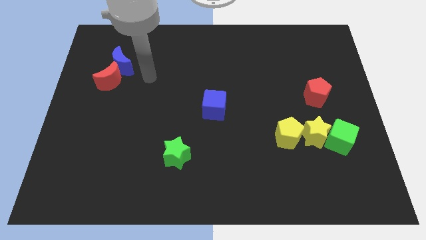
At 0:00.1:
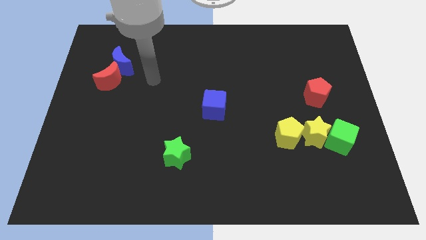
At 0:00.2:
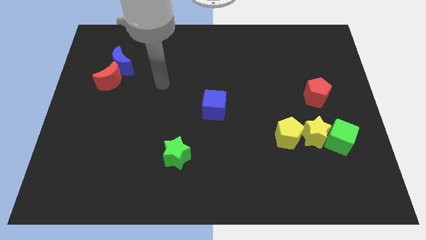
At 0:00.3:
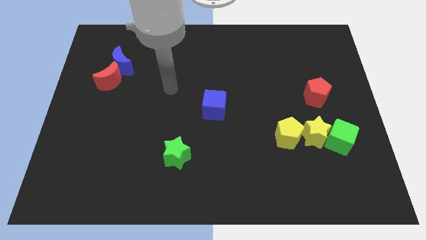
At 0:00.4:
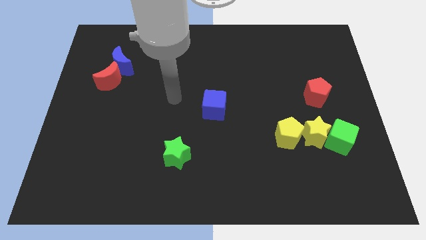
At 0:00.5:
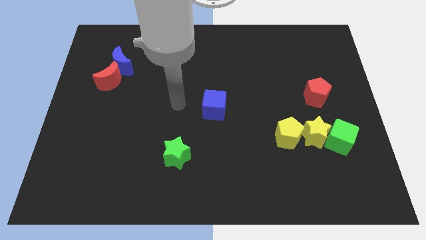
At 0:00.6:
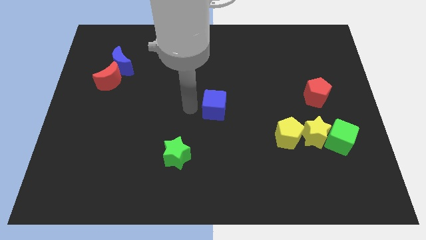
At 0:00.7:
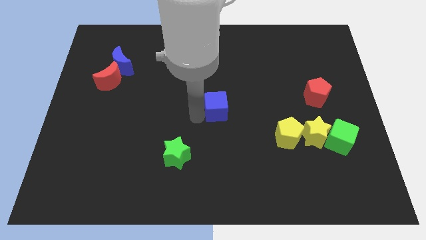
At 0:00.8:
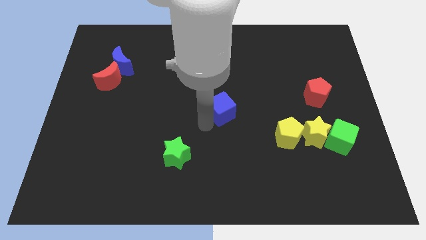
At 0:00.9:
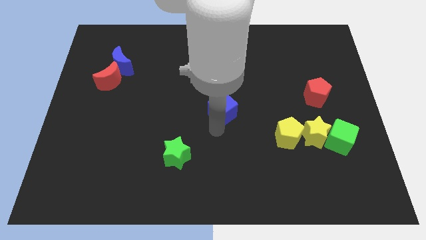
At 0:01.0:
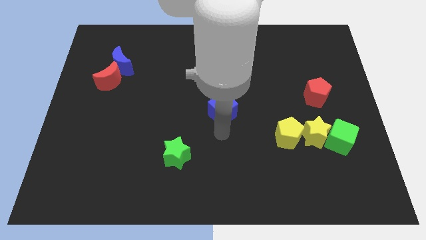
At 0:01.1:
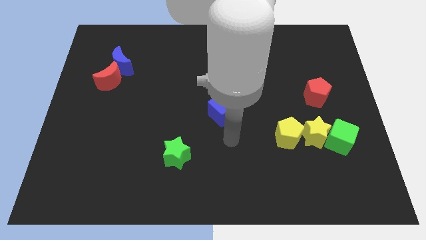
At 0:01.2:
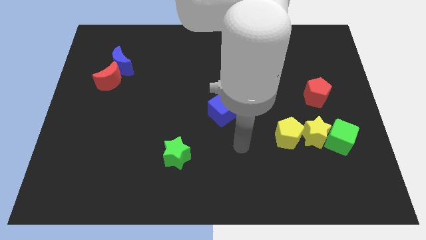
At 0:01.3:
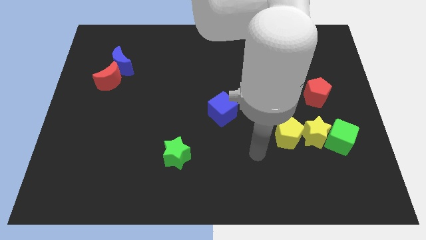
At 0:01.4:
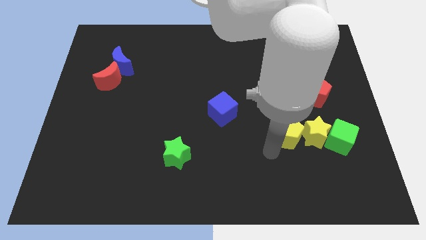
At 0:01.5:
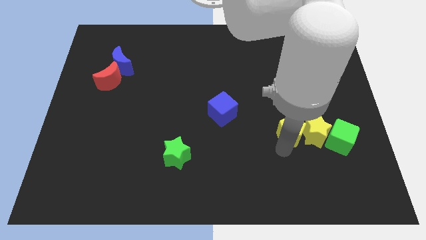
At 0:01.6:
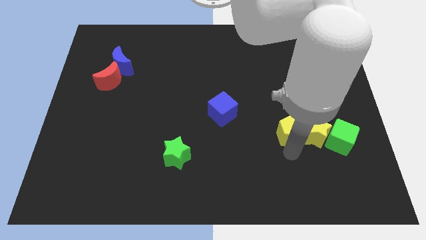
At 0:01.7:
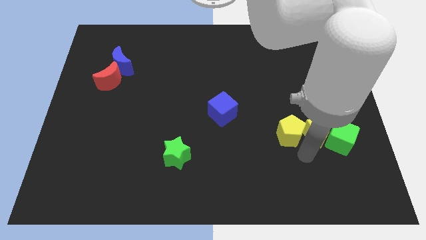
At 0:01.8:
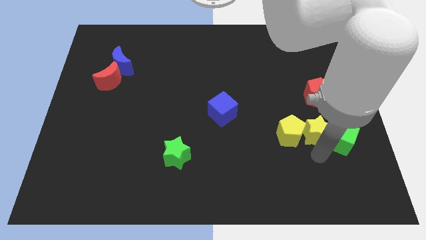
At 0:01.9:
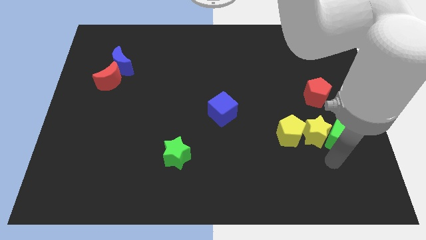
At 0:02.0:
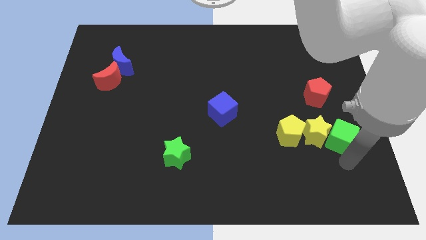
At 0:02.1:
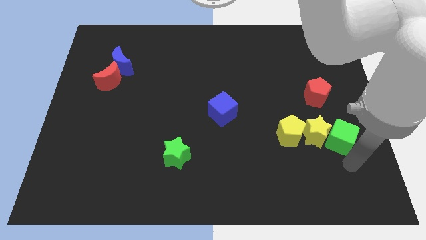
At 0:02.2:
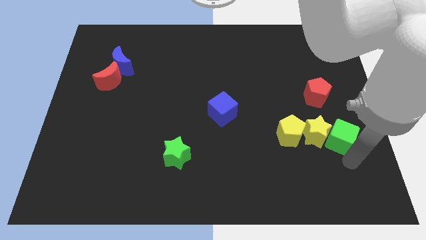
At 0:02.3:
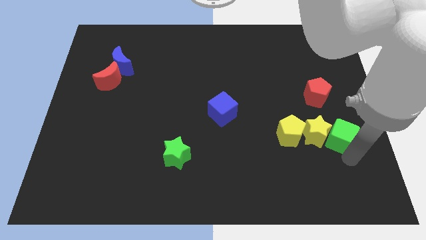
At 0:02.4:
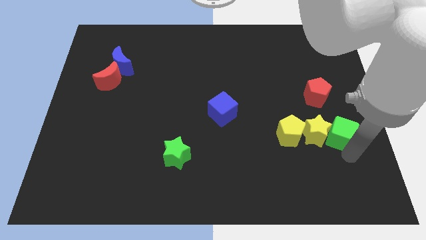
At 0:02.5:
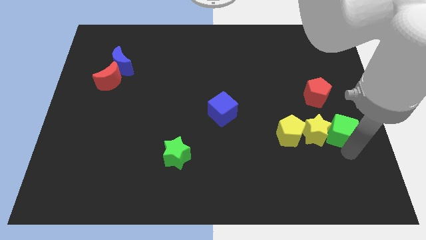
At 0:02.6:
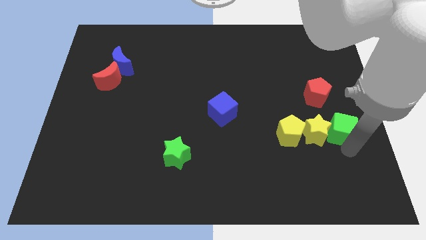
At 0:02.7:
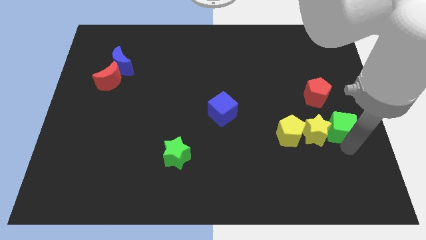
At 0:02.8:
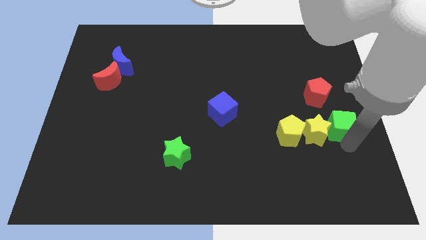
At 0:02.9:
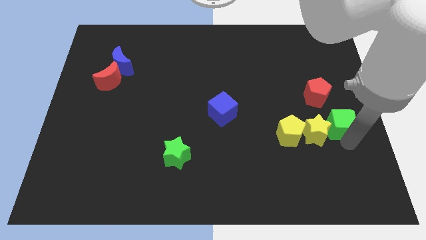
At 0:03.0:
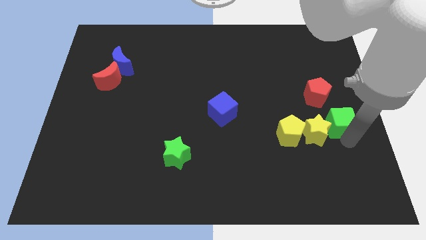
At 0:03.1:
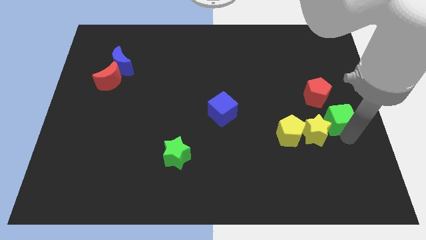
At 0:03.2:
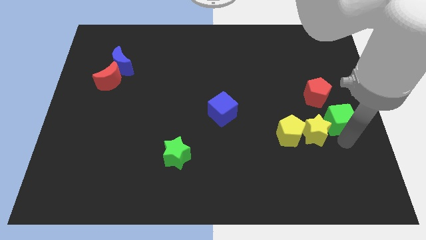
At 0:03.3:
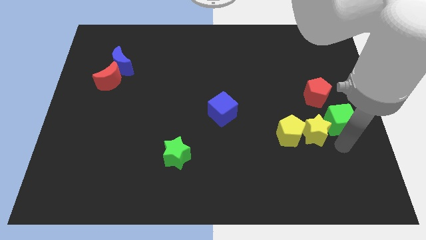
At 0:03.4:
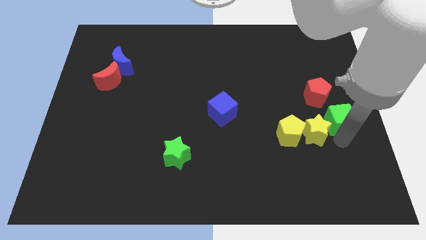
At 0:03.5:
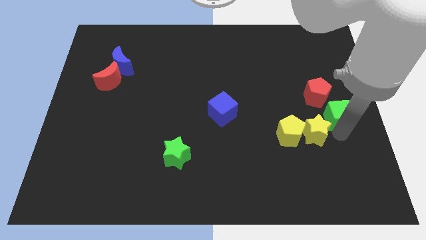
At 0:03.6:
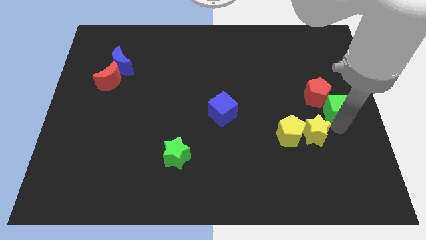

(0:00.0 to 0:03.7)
move the green cube a little up

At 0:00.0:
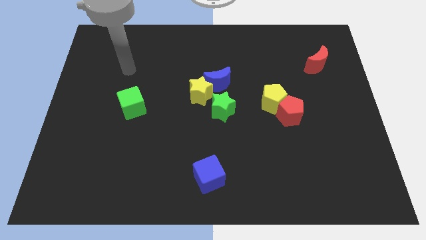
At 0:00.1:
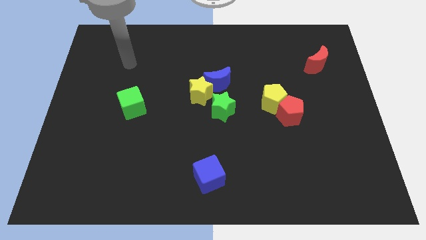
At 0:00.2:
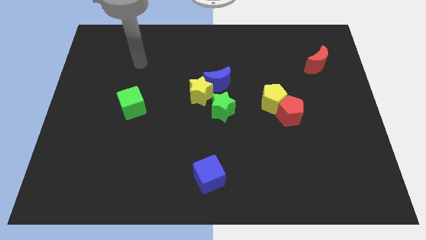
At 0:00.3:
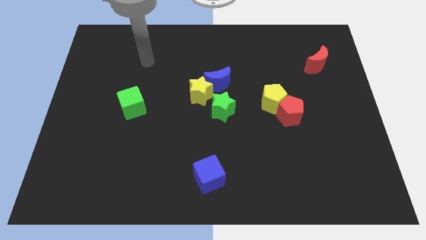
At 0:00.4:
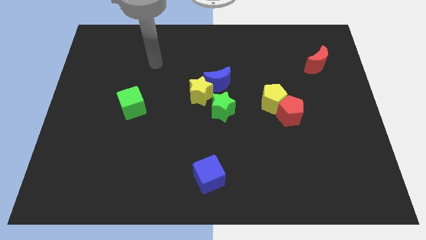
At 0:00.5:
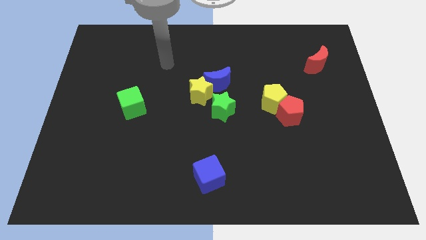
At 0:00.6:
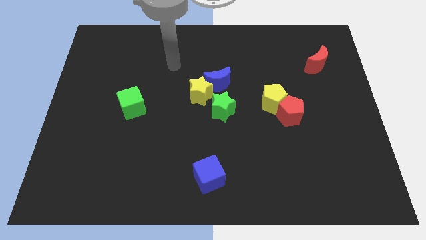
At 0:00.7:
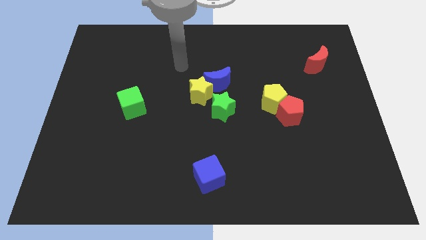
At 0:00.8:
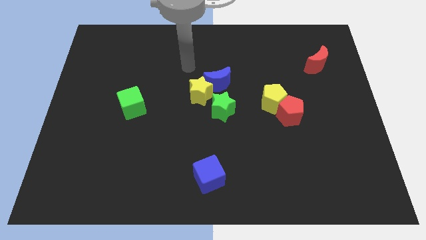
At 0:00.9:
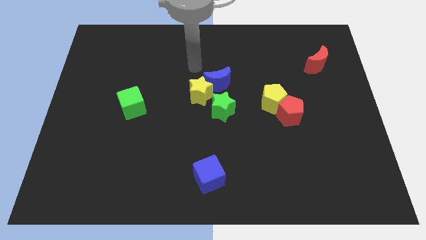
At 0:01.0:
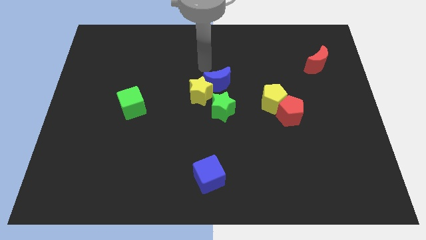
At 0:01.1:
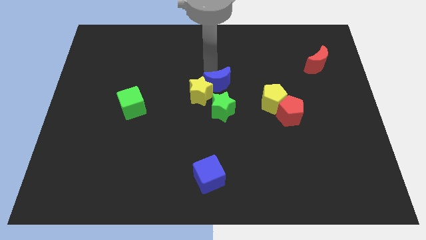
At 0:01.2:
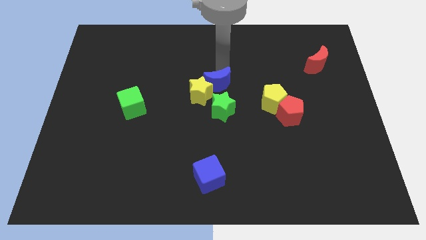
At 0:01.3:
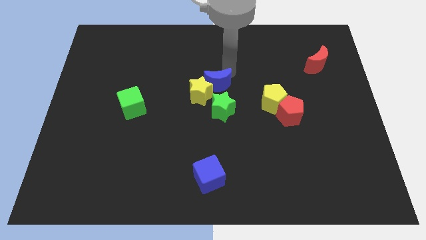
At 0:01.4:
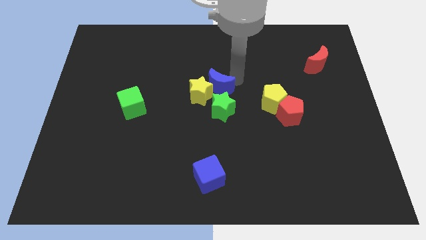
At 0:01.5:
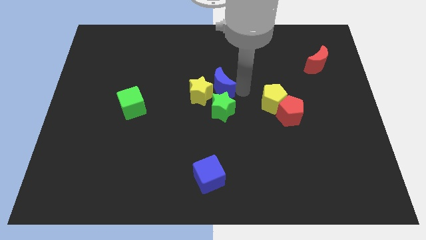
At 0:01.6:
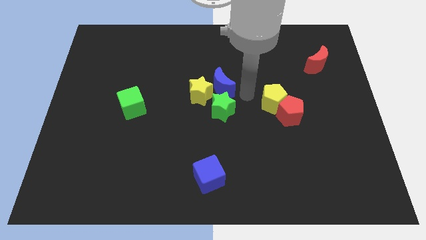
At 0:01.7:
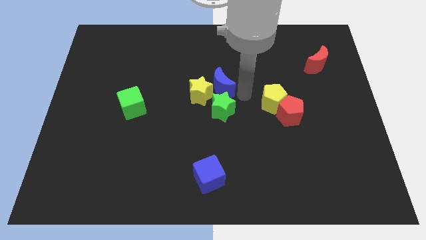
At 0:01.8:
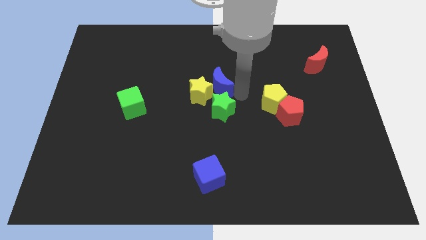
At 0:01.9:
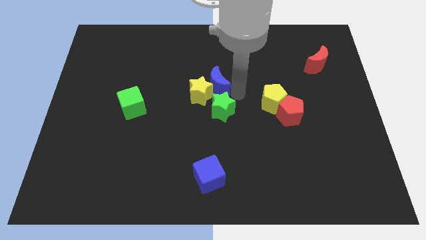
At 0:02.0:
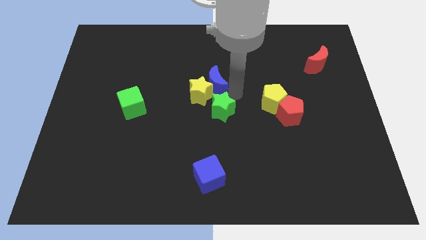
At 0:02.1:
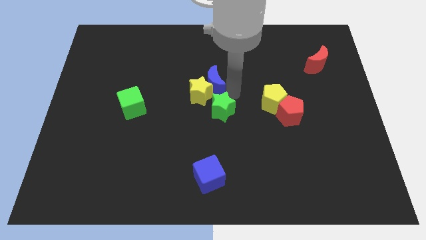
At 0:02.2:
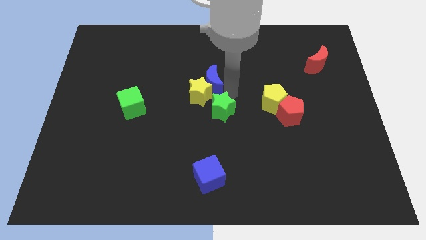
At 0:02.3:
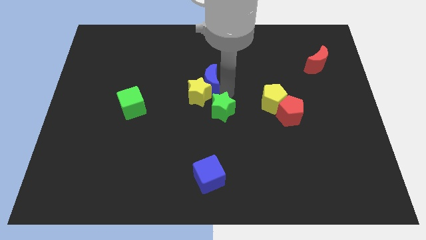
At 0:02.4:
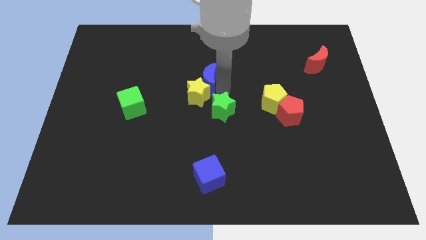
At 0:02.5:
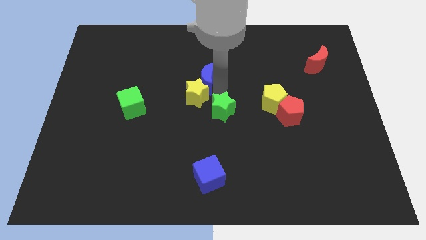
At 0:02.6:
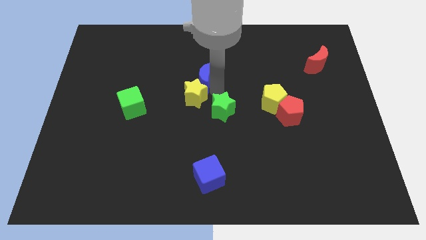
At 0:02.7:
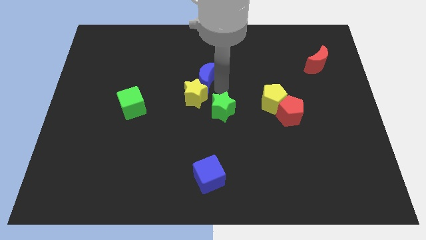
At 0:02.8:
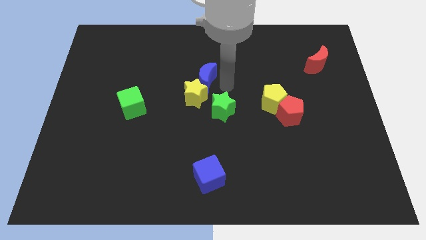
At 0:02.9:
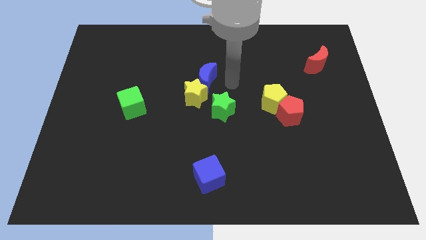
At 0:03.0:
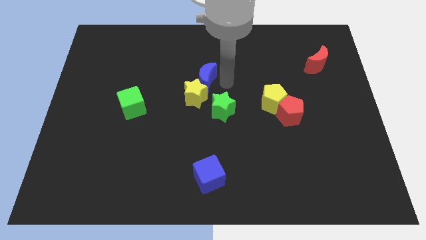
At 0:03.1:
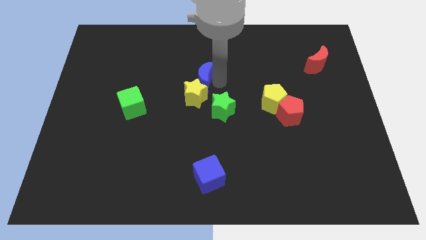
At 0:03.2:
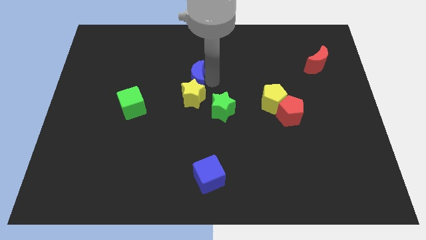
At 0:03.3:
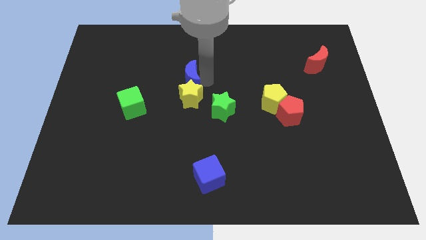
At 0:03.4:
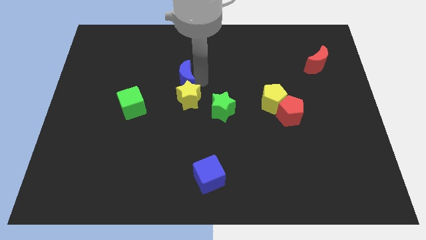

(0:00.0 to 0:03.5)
push the blue moon a bit left

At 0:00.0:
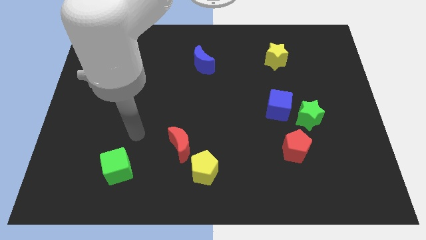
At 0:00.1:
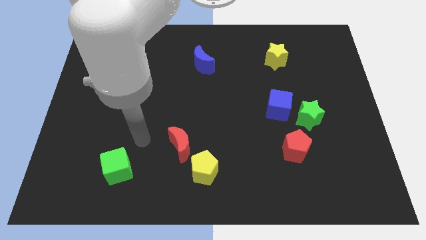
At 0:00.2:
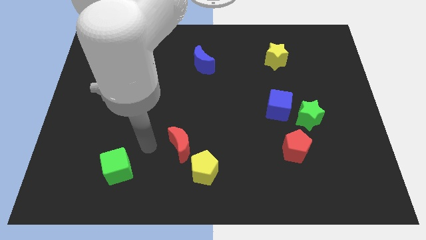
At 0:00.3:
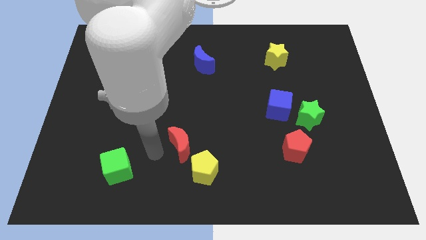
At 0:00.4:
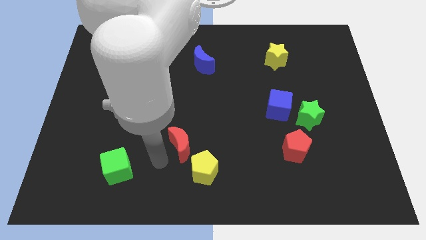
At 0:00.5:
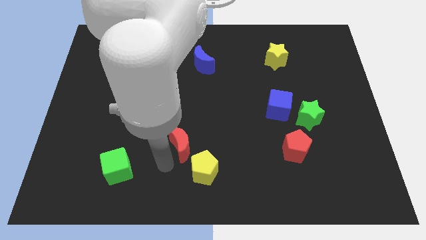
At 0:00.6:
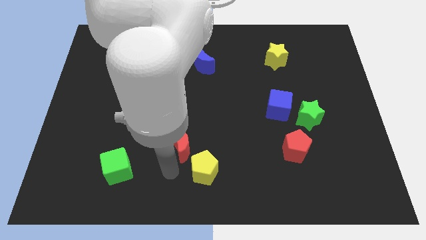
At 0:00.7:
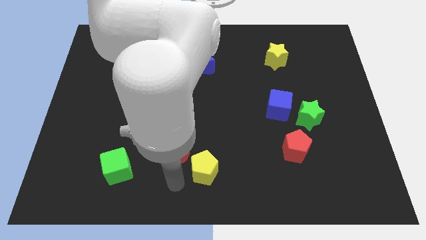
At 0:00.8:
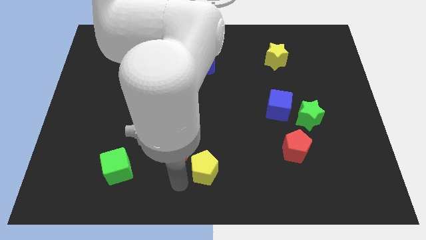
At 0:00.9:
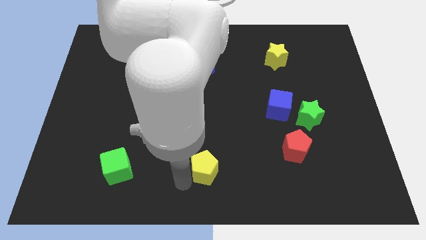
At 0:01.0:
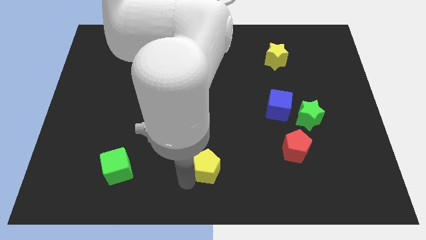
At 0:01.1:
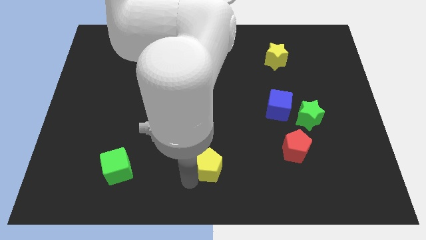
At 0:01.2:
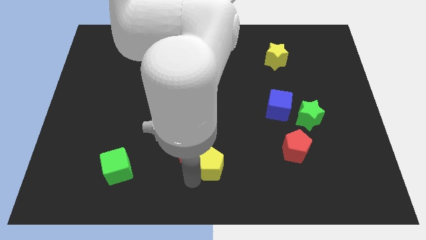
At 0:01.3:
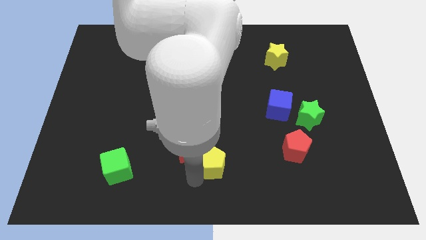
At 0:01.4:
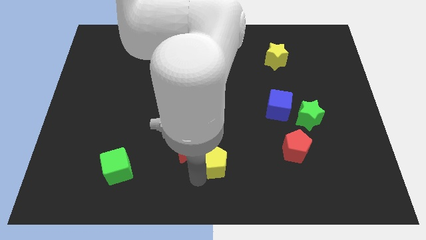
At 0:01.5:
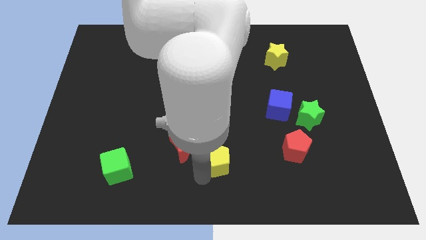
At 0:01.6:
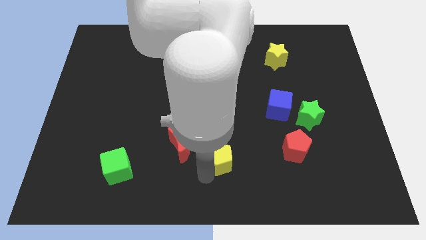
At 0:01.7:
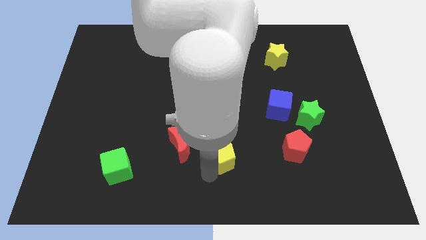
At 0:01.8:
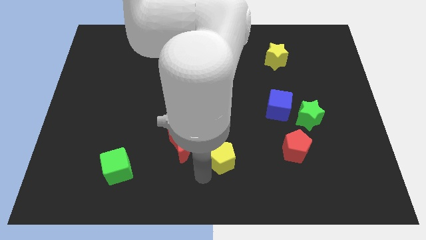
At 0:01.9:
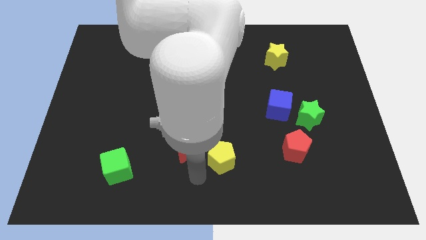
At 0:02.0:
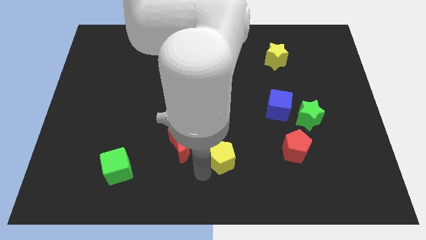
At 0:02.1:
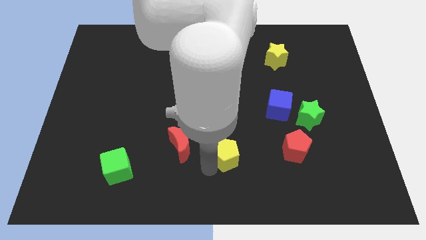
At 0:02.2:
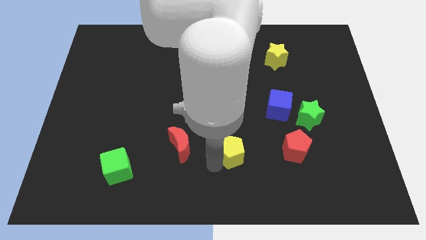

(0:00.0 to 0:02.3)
slightly slide the yellow pentagon diagonally upwards and right
